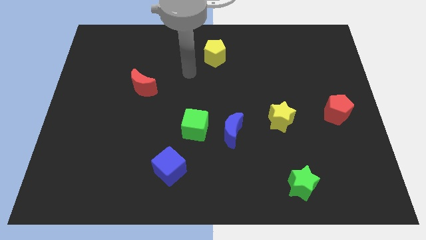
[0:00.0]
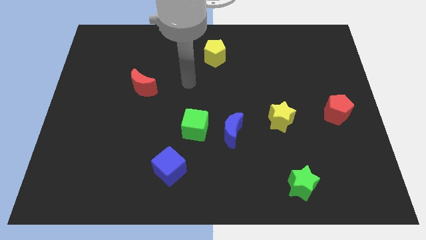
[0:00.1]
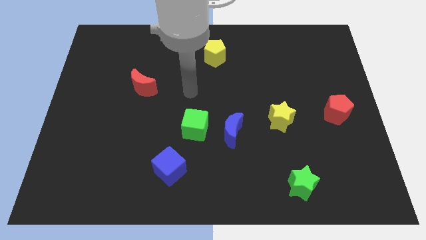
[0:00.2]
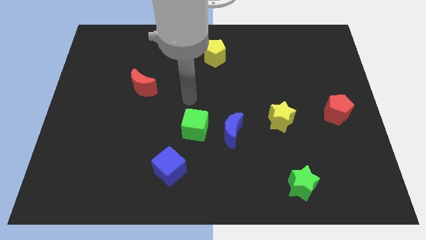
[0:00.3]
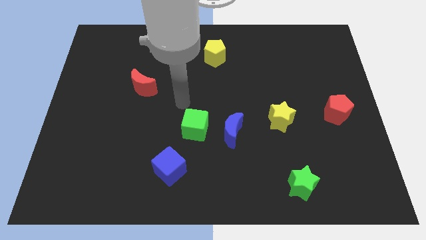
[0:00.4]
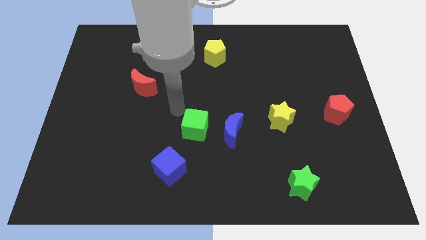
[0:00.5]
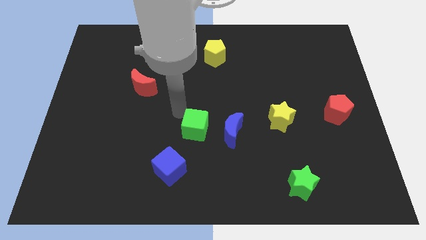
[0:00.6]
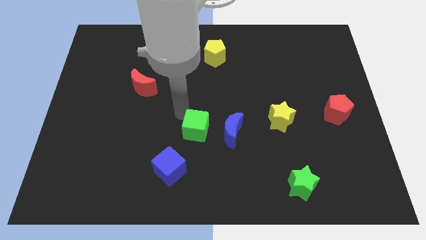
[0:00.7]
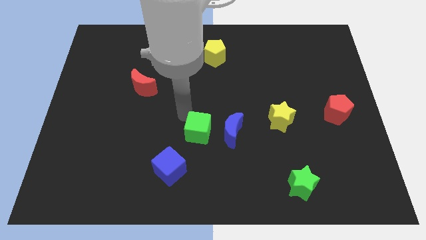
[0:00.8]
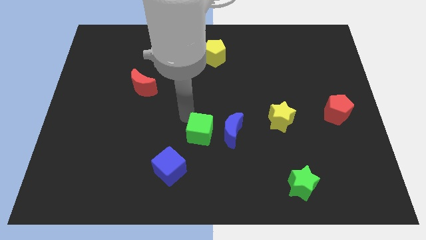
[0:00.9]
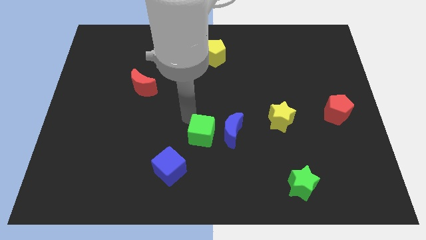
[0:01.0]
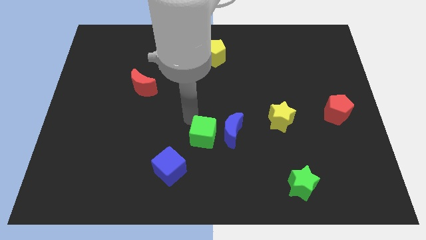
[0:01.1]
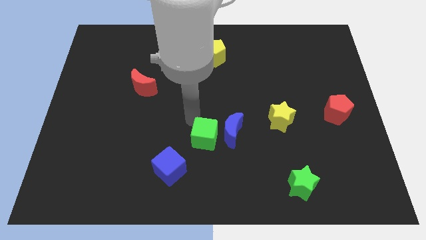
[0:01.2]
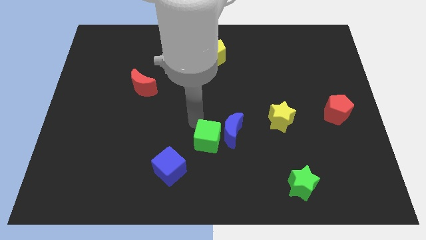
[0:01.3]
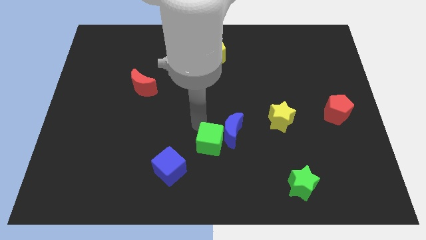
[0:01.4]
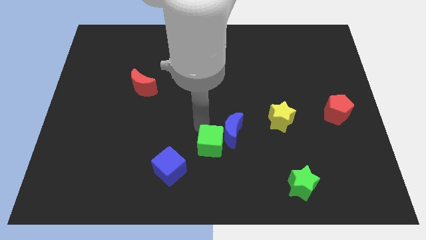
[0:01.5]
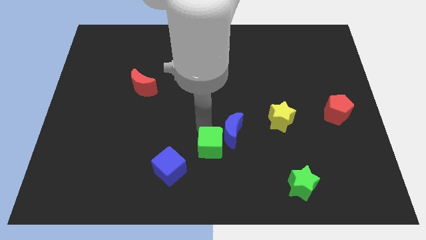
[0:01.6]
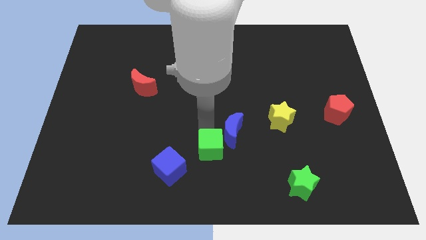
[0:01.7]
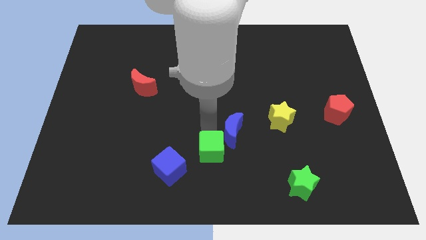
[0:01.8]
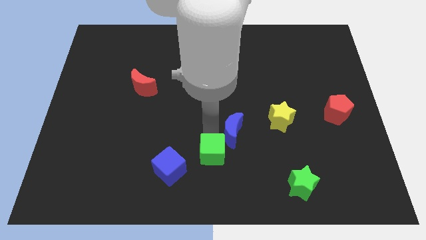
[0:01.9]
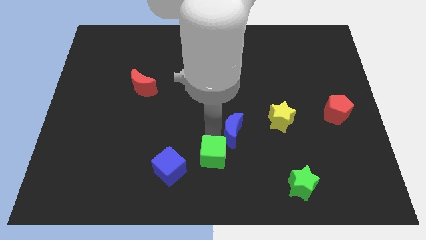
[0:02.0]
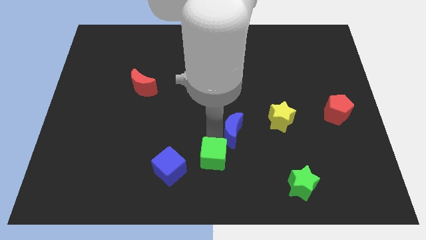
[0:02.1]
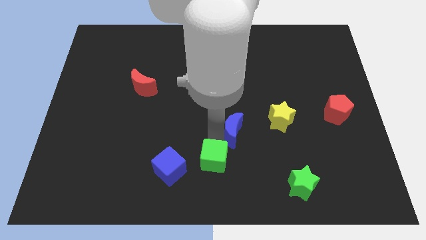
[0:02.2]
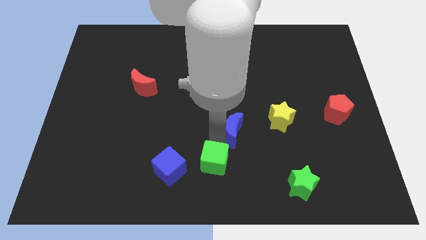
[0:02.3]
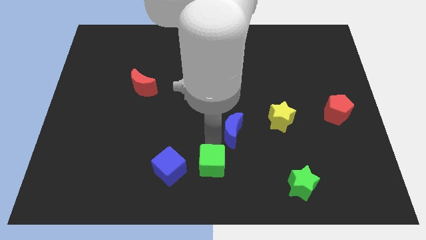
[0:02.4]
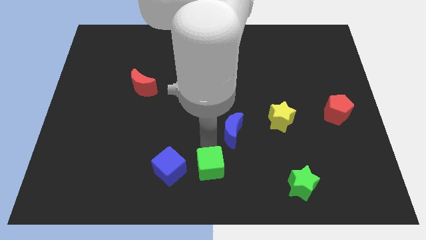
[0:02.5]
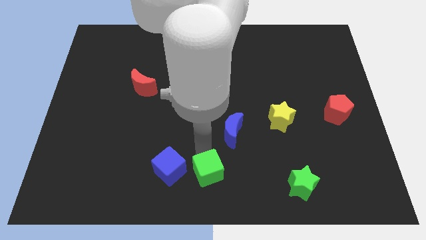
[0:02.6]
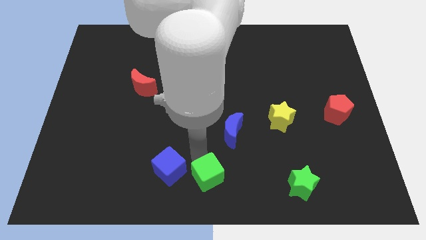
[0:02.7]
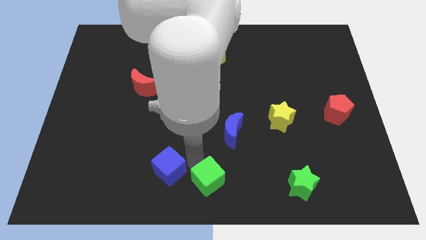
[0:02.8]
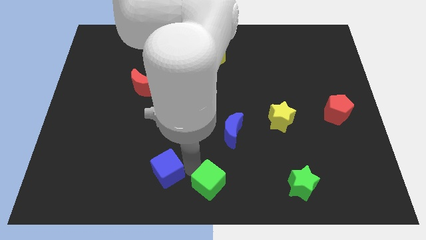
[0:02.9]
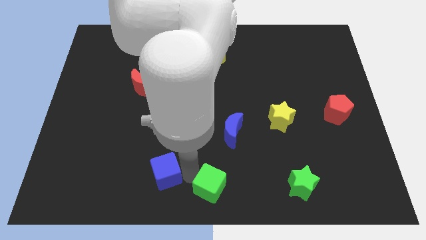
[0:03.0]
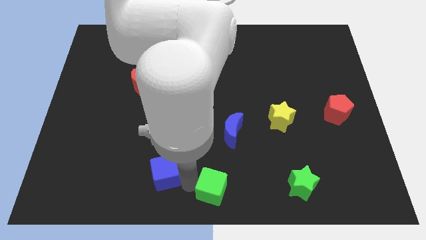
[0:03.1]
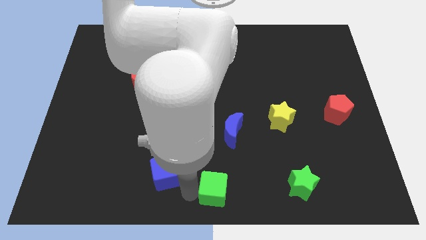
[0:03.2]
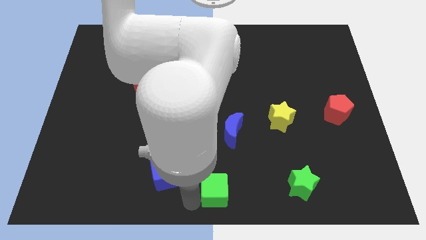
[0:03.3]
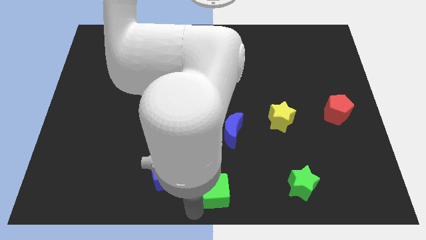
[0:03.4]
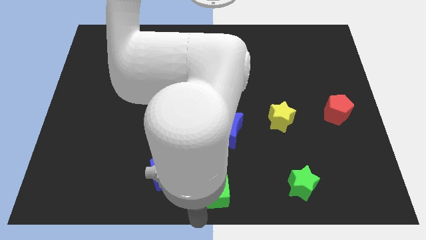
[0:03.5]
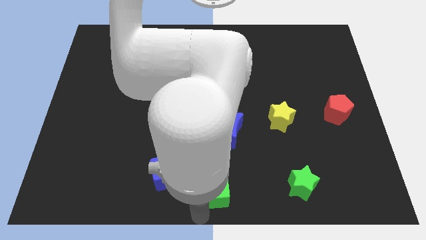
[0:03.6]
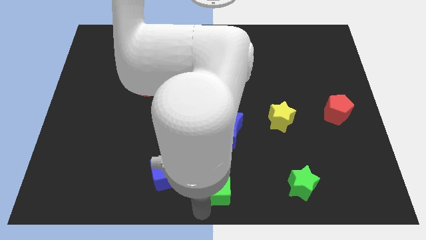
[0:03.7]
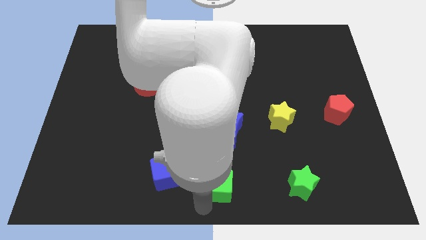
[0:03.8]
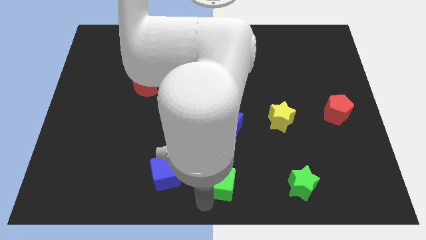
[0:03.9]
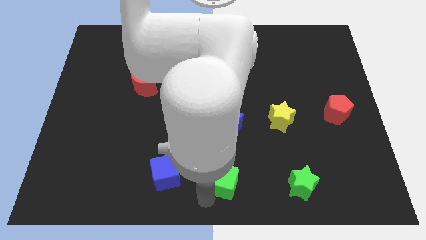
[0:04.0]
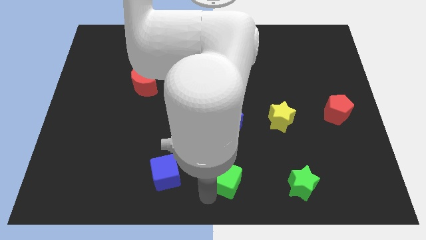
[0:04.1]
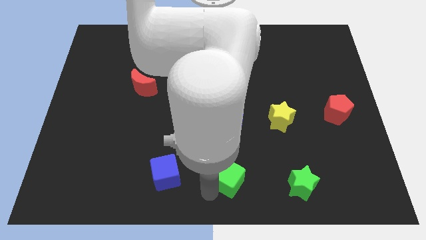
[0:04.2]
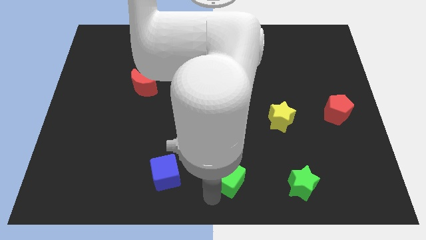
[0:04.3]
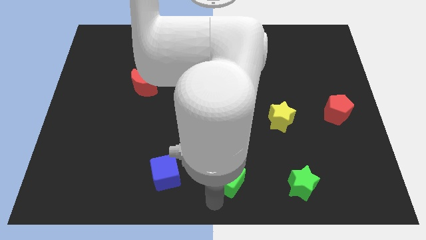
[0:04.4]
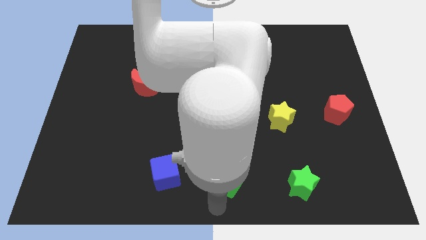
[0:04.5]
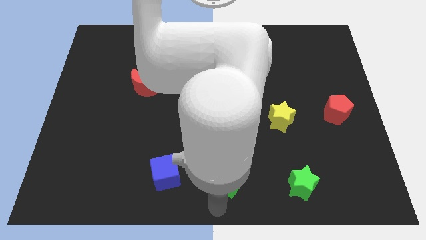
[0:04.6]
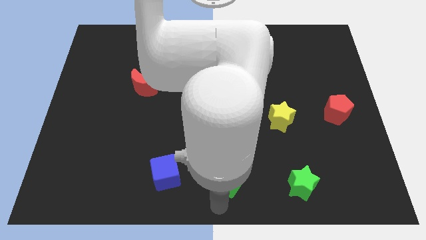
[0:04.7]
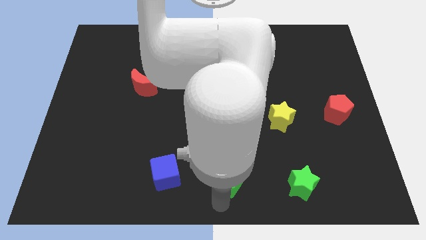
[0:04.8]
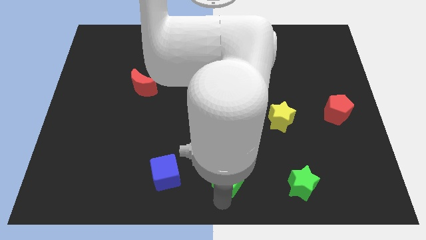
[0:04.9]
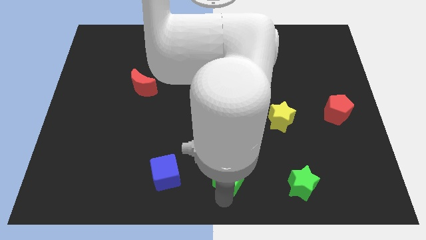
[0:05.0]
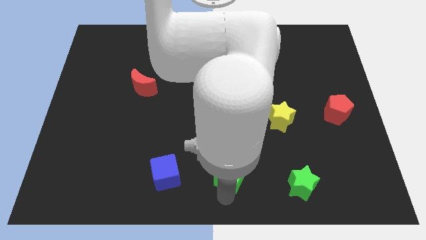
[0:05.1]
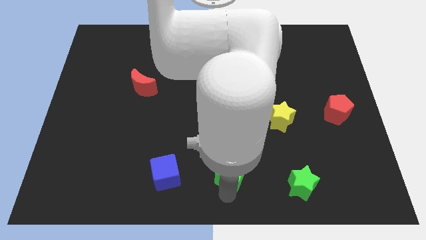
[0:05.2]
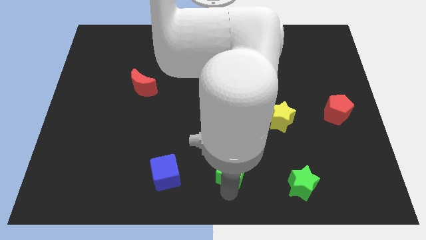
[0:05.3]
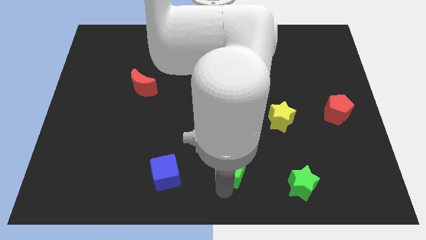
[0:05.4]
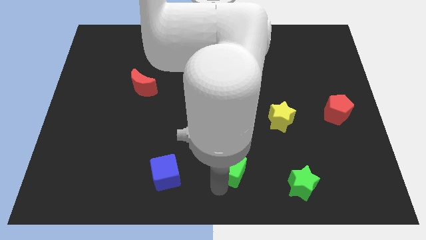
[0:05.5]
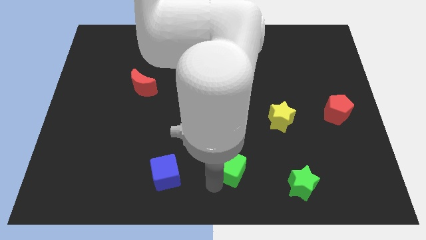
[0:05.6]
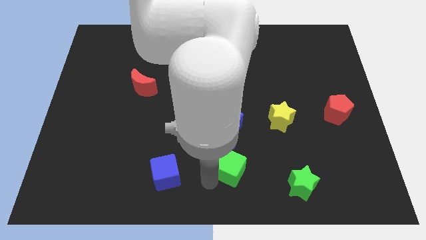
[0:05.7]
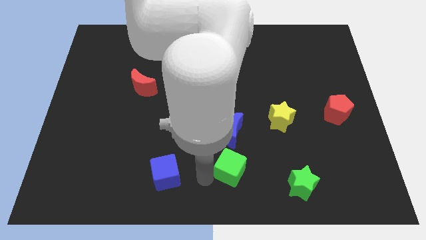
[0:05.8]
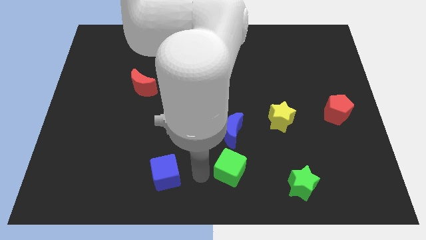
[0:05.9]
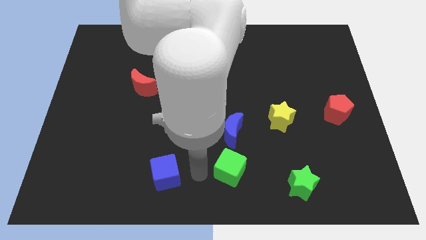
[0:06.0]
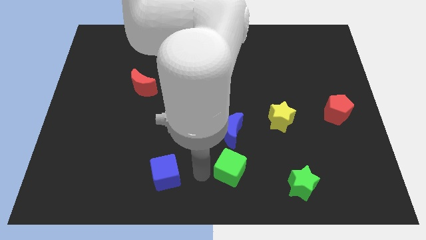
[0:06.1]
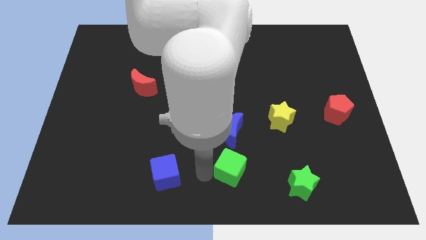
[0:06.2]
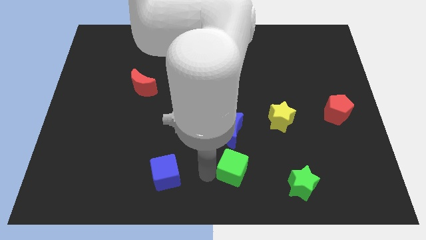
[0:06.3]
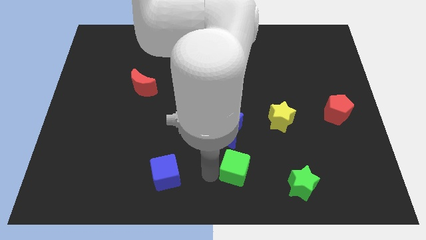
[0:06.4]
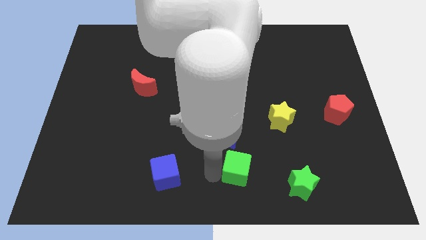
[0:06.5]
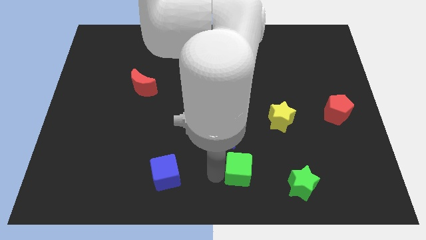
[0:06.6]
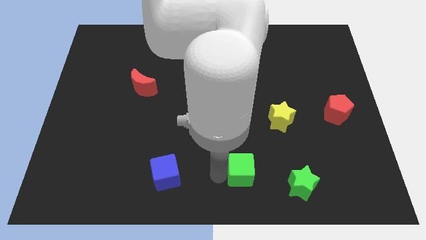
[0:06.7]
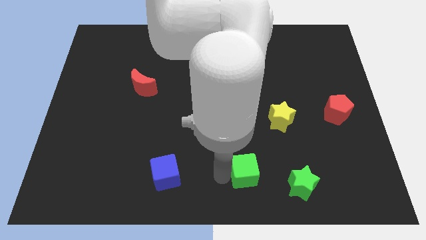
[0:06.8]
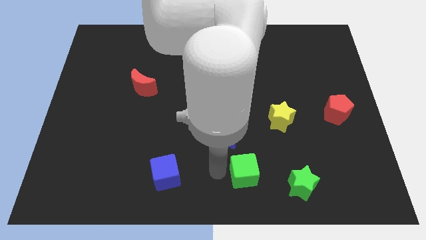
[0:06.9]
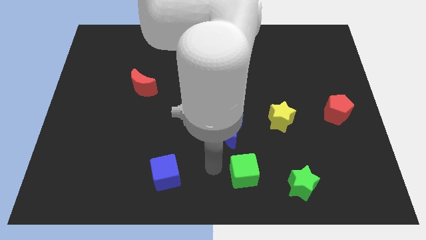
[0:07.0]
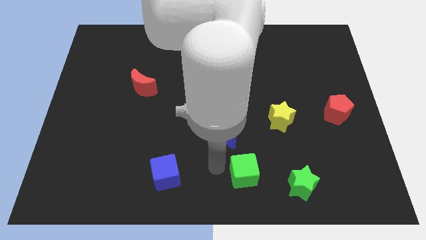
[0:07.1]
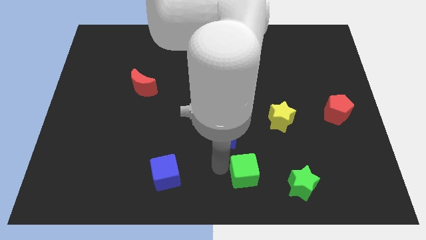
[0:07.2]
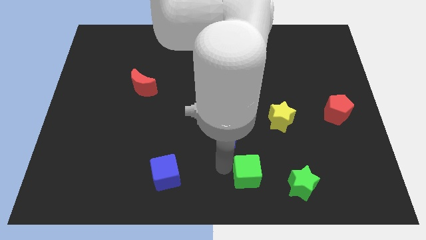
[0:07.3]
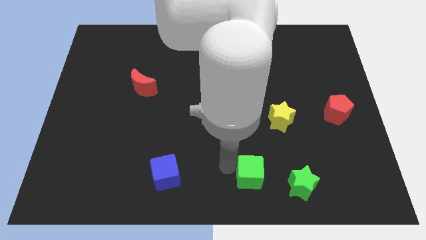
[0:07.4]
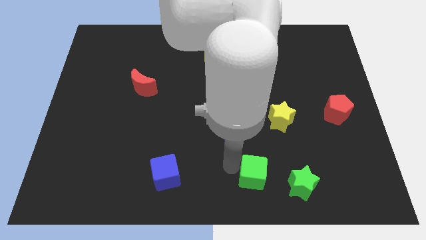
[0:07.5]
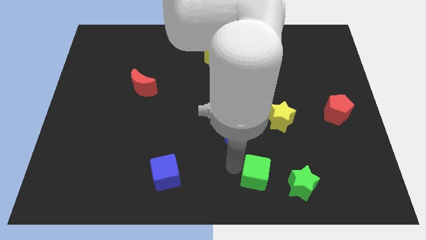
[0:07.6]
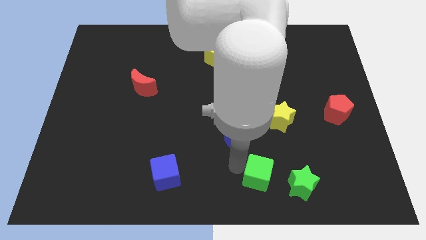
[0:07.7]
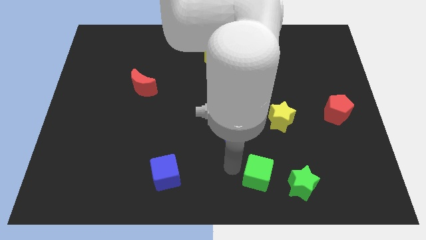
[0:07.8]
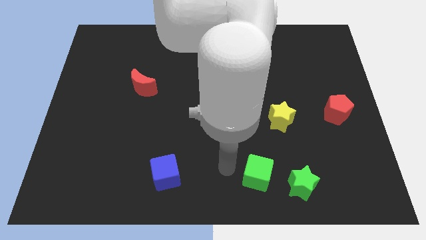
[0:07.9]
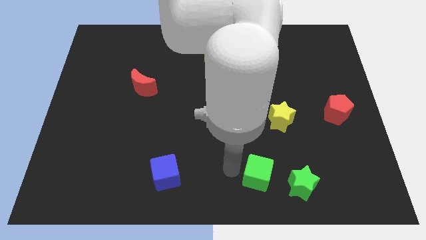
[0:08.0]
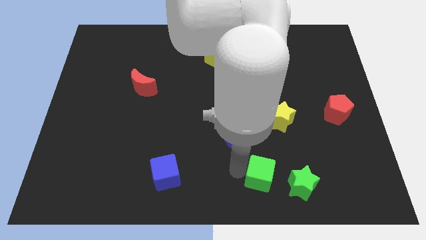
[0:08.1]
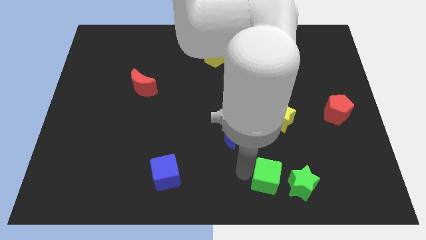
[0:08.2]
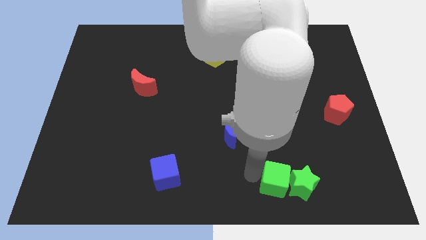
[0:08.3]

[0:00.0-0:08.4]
slide the green cube close to the green star
